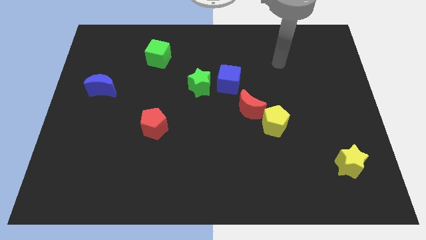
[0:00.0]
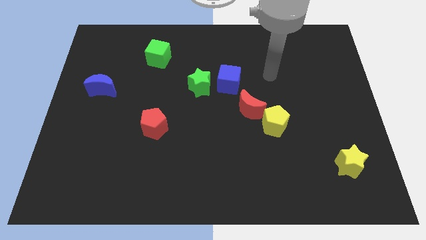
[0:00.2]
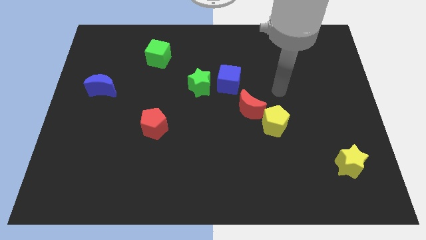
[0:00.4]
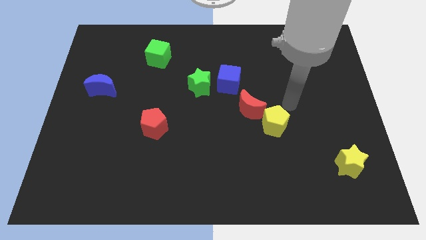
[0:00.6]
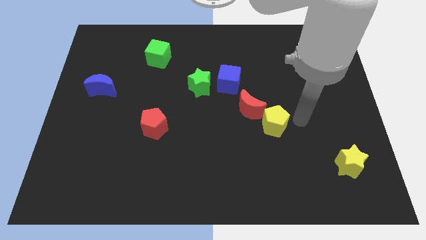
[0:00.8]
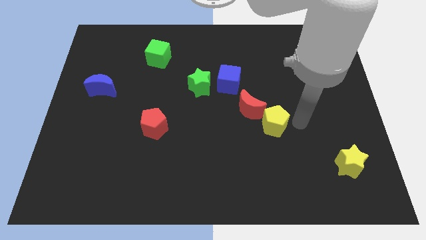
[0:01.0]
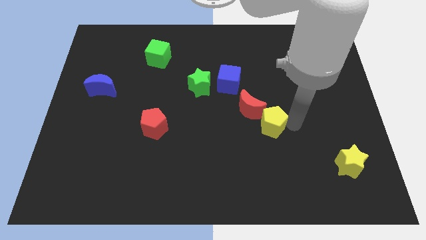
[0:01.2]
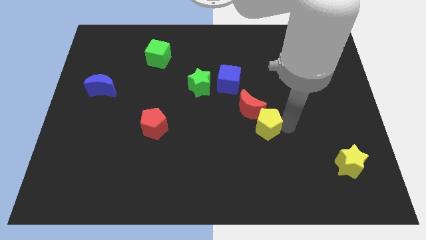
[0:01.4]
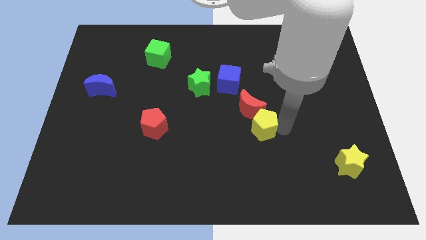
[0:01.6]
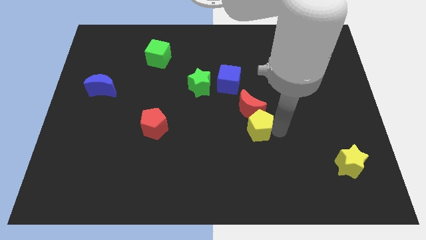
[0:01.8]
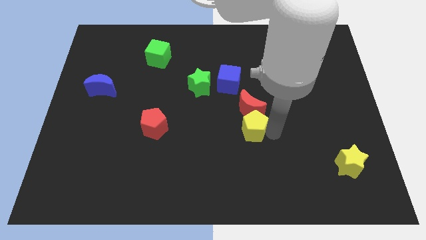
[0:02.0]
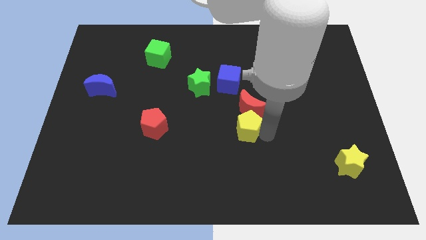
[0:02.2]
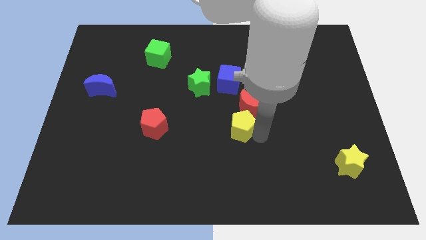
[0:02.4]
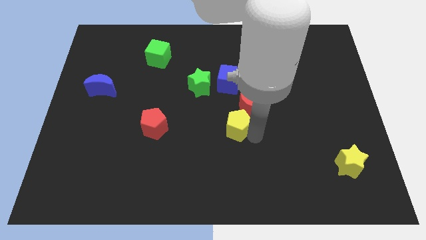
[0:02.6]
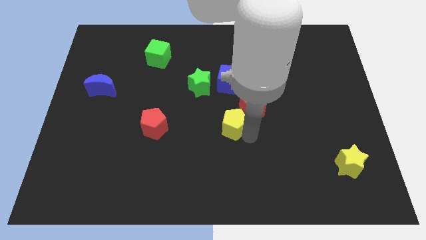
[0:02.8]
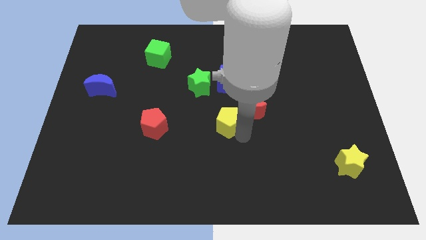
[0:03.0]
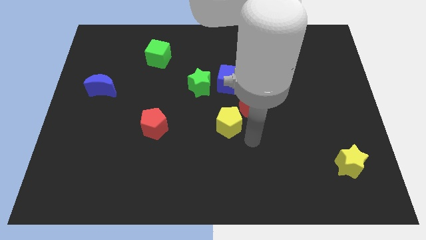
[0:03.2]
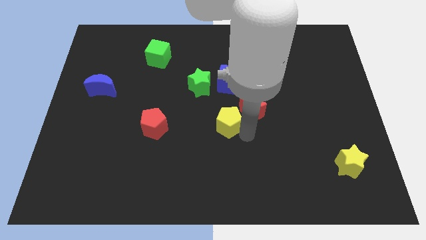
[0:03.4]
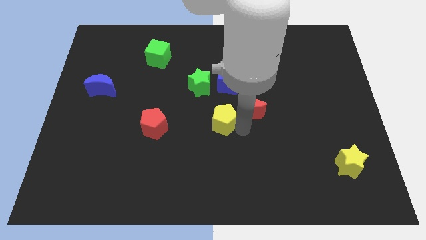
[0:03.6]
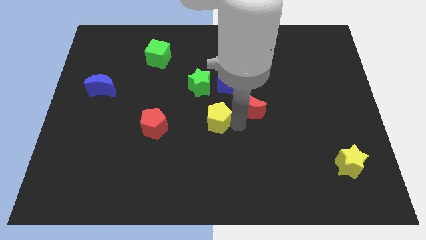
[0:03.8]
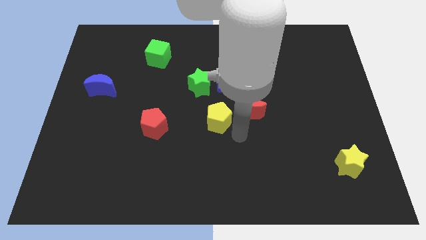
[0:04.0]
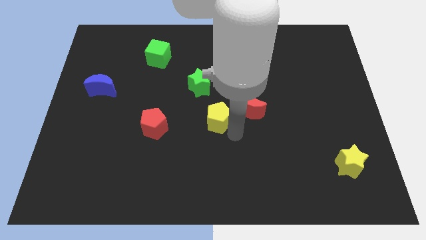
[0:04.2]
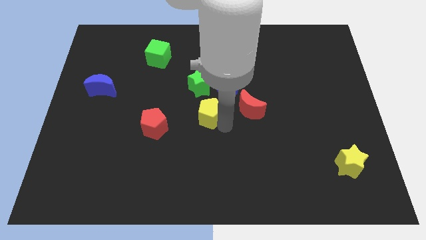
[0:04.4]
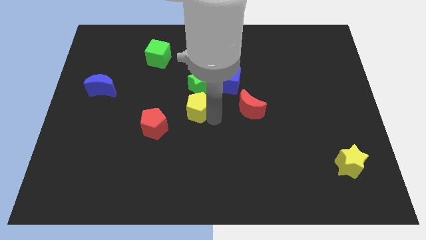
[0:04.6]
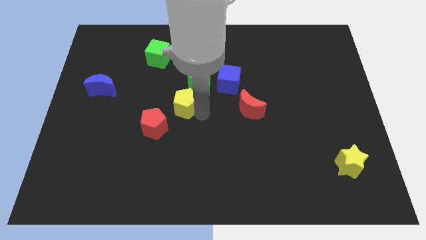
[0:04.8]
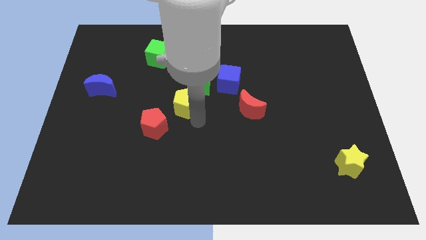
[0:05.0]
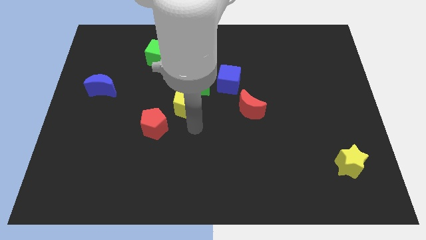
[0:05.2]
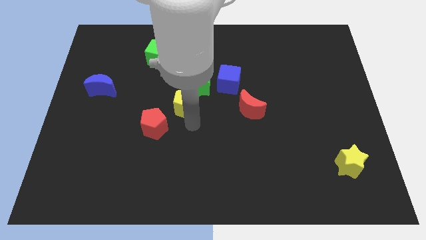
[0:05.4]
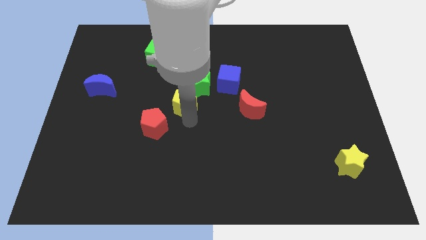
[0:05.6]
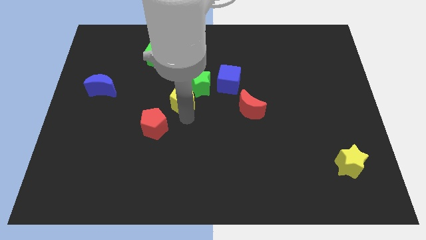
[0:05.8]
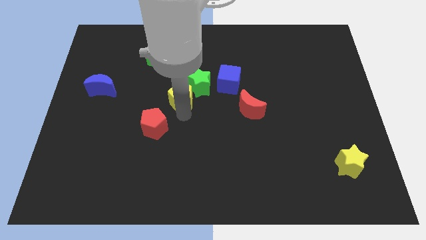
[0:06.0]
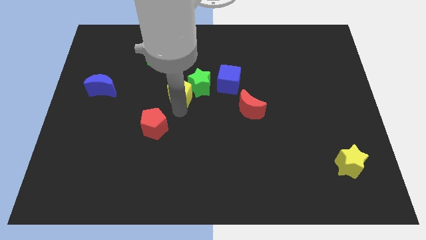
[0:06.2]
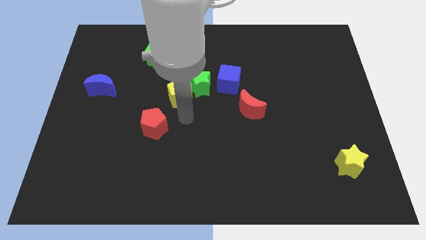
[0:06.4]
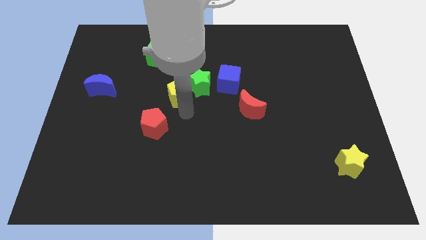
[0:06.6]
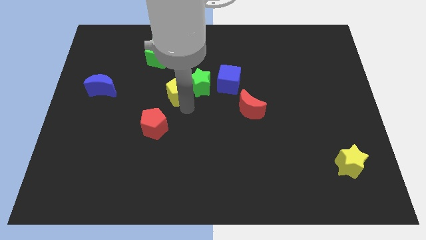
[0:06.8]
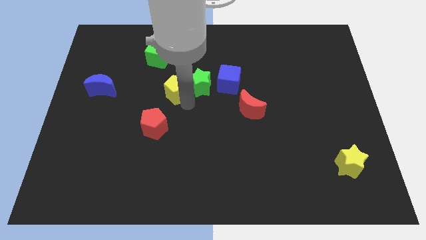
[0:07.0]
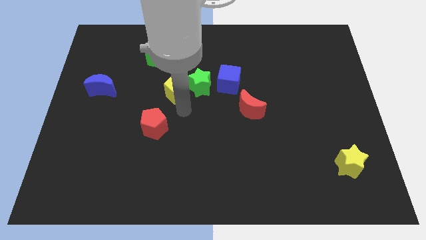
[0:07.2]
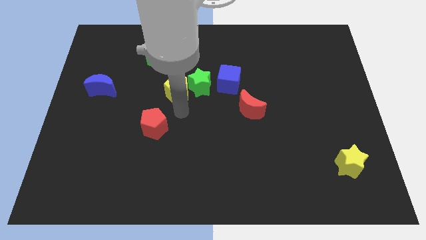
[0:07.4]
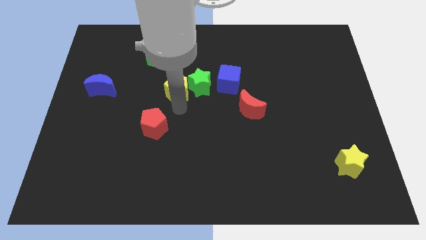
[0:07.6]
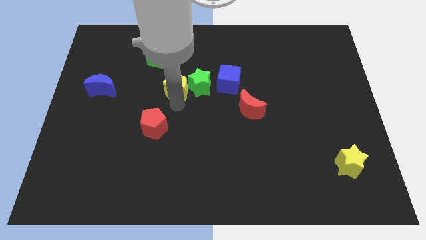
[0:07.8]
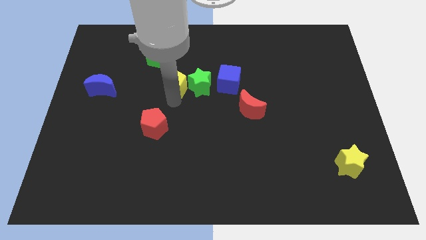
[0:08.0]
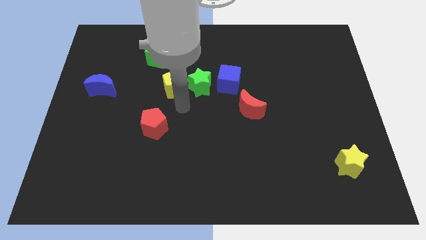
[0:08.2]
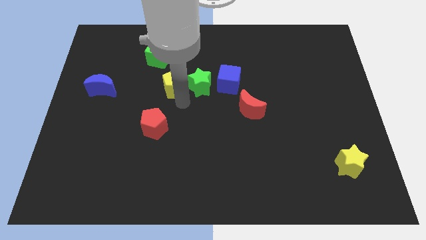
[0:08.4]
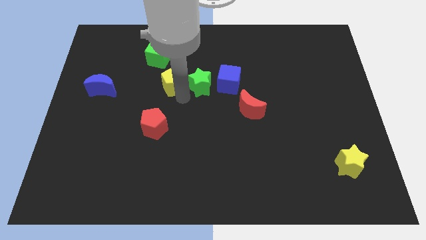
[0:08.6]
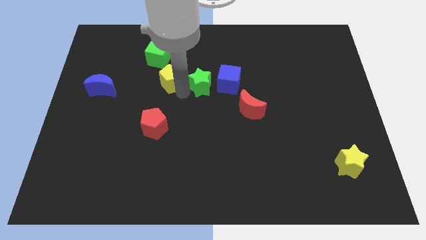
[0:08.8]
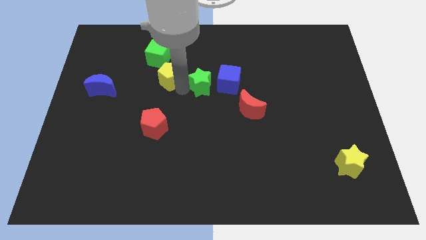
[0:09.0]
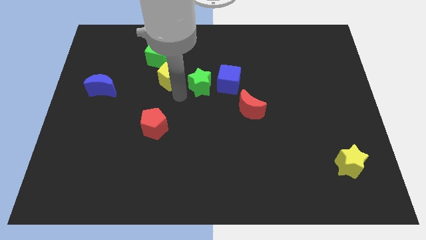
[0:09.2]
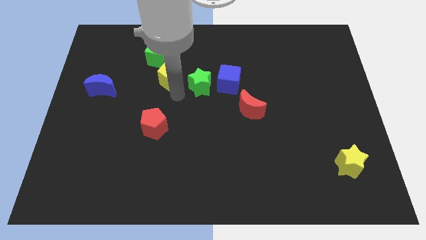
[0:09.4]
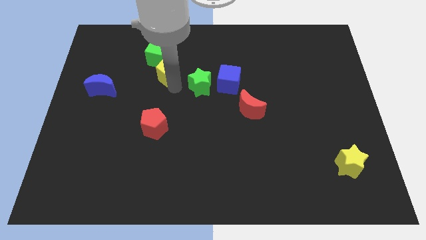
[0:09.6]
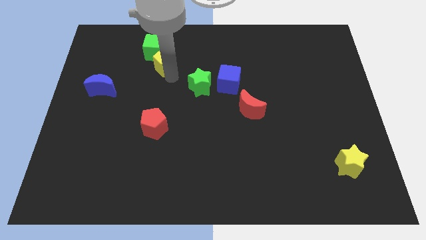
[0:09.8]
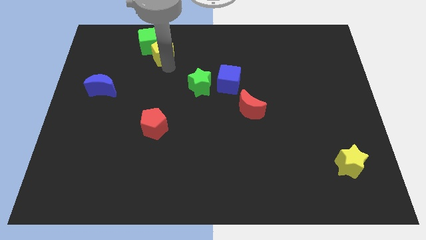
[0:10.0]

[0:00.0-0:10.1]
move the yellow pentagon close to the green cube

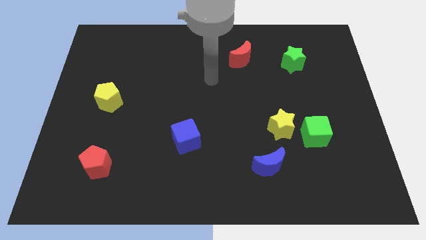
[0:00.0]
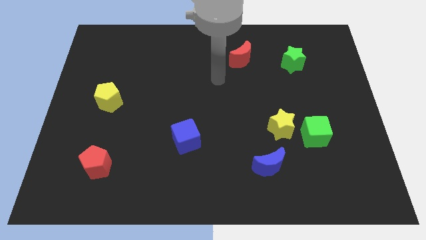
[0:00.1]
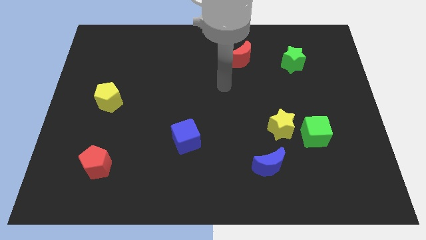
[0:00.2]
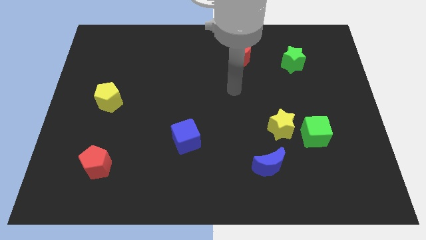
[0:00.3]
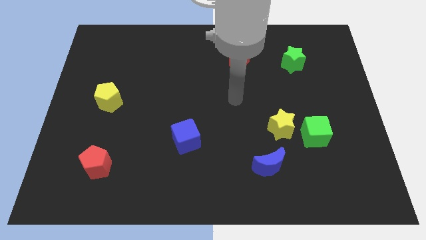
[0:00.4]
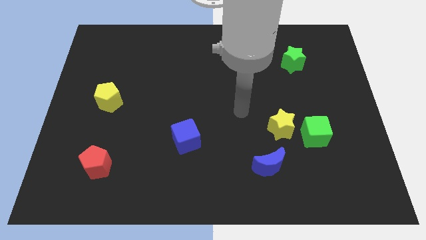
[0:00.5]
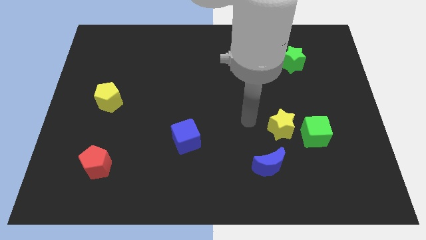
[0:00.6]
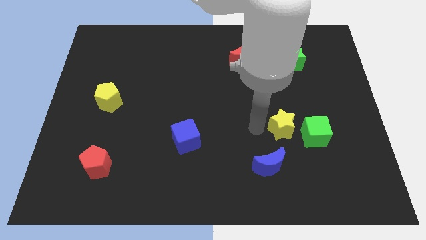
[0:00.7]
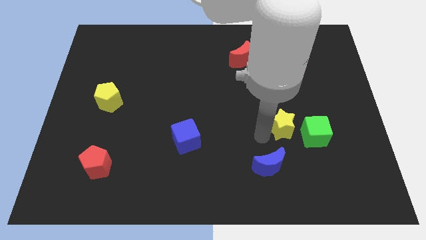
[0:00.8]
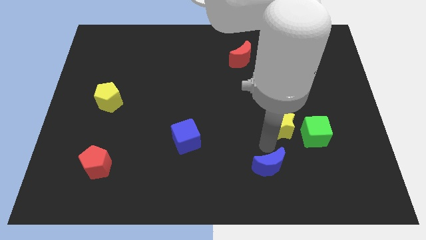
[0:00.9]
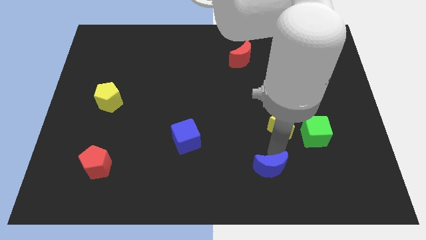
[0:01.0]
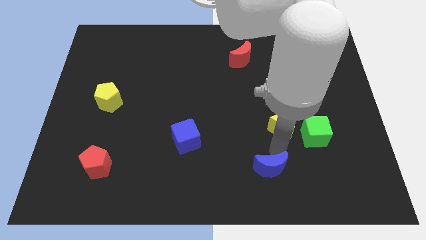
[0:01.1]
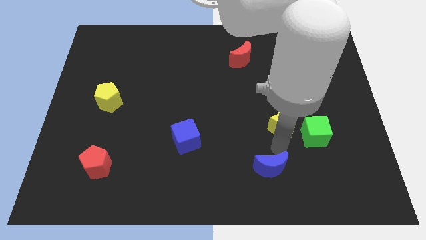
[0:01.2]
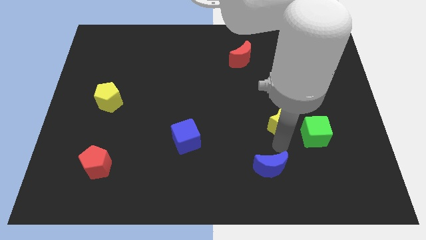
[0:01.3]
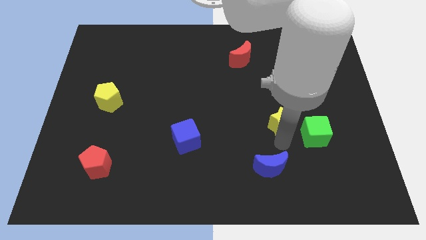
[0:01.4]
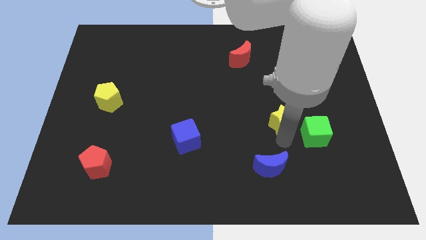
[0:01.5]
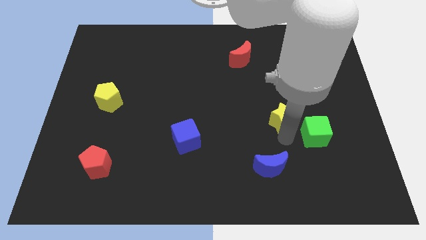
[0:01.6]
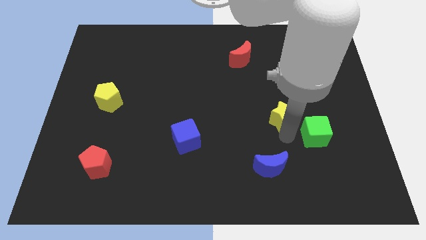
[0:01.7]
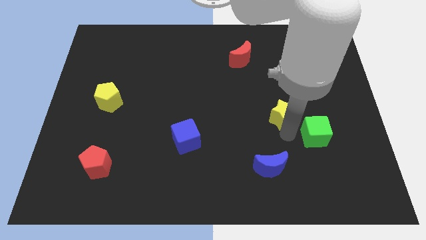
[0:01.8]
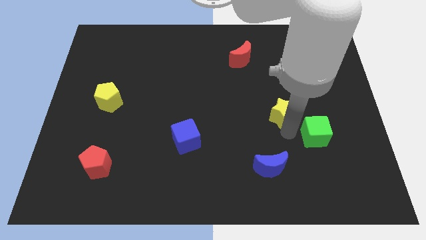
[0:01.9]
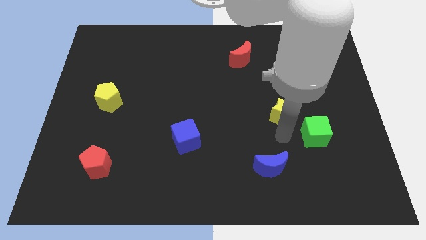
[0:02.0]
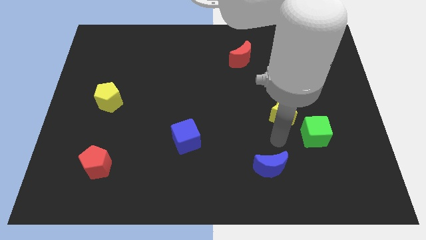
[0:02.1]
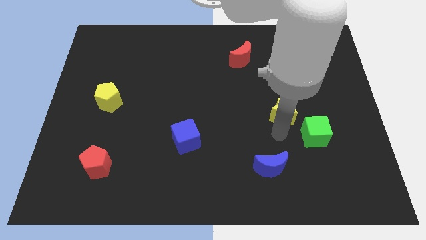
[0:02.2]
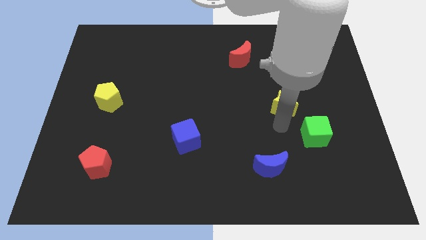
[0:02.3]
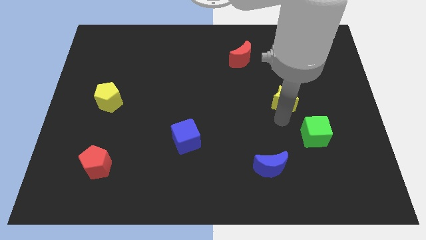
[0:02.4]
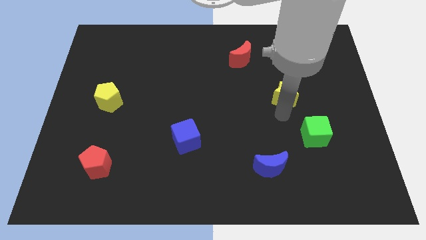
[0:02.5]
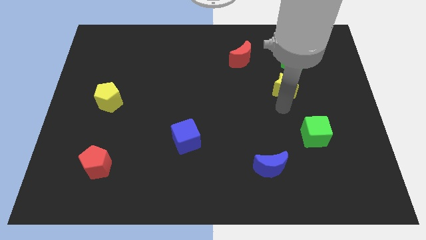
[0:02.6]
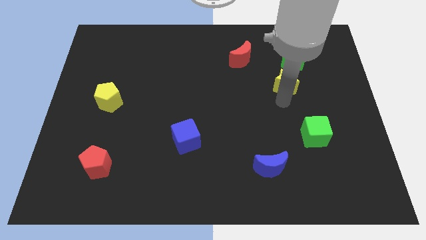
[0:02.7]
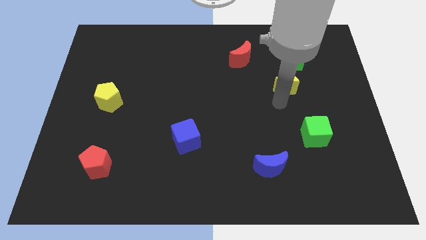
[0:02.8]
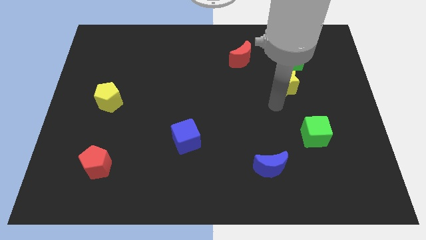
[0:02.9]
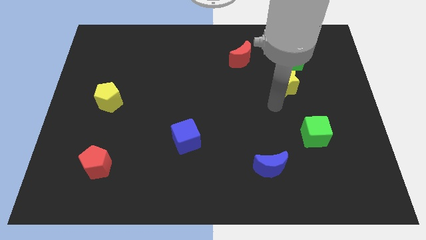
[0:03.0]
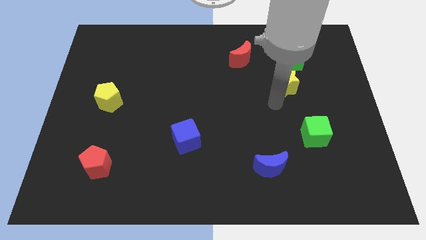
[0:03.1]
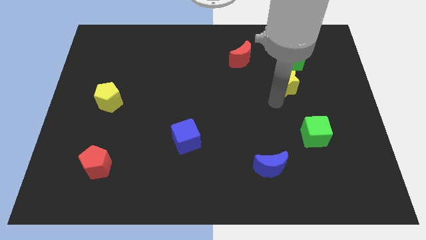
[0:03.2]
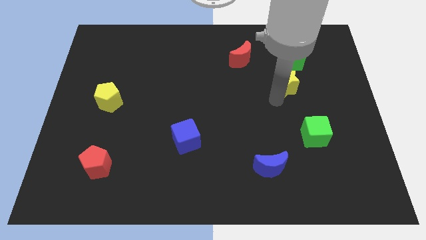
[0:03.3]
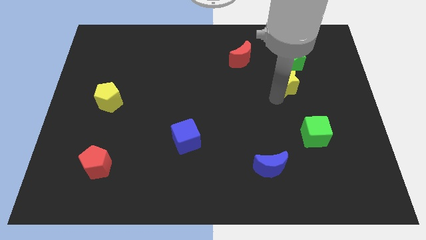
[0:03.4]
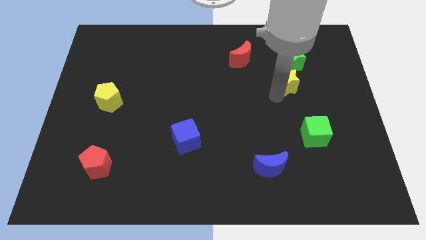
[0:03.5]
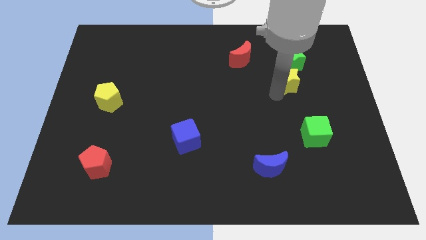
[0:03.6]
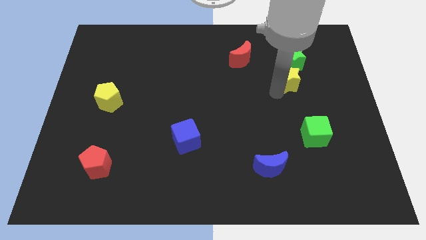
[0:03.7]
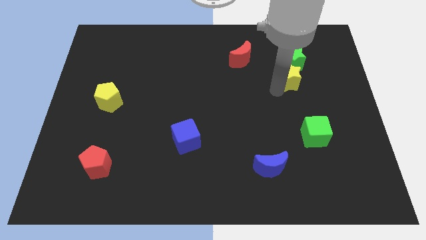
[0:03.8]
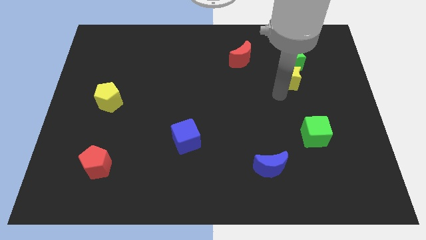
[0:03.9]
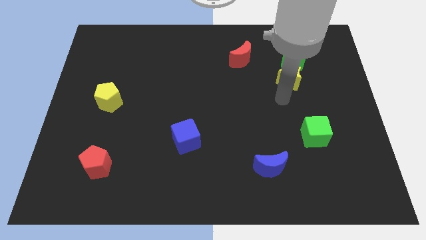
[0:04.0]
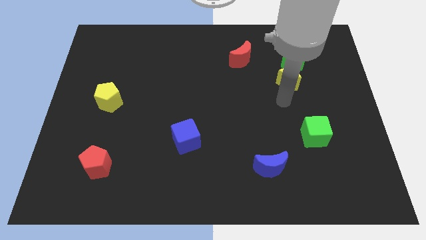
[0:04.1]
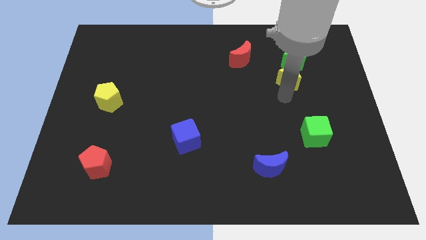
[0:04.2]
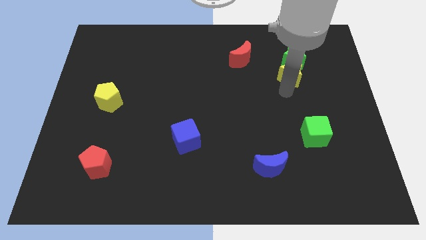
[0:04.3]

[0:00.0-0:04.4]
push the yellow star towards the green star
